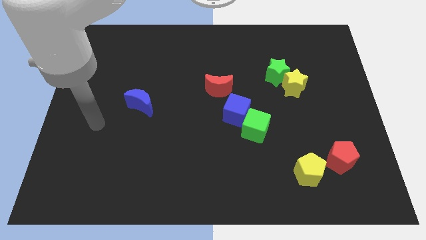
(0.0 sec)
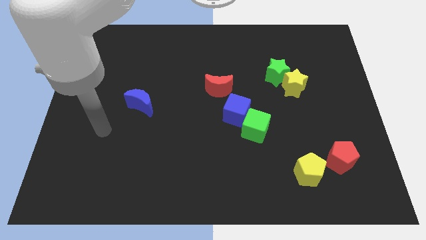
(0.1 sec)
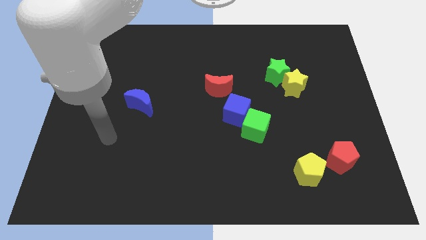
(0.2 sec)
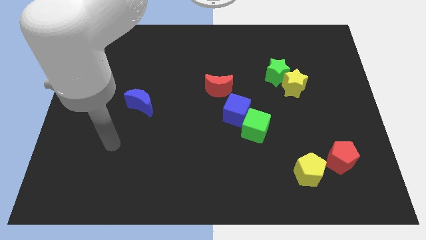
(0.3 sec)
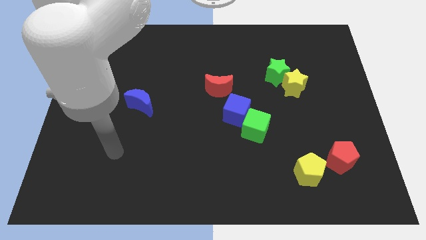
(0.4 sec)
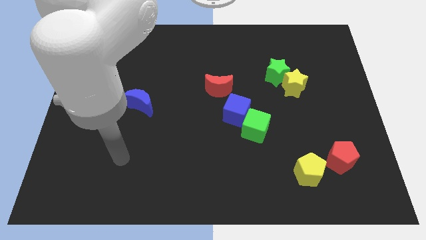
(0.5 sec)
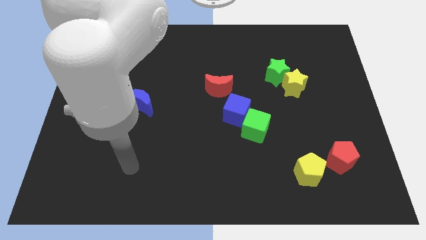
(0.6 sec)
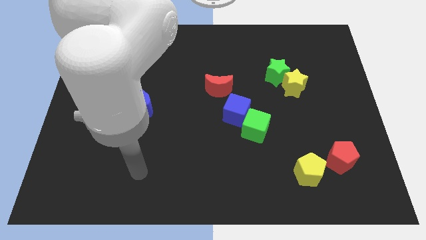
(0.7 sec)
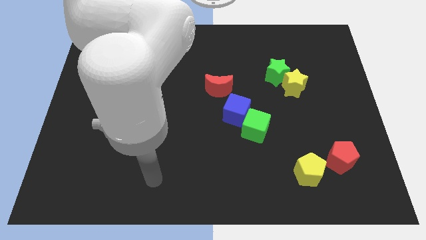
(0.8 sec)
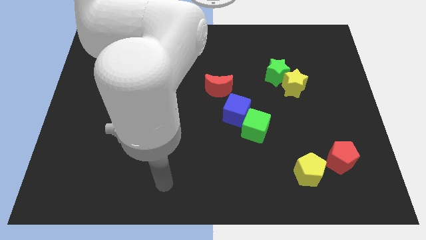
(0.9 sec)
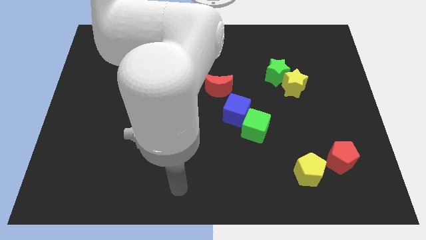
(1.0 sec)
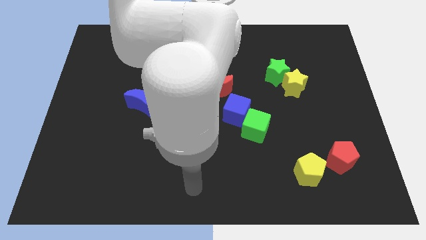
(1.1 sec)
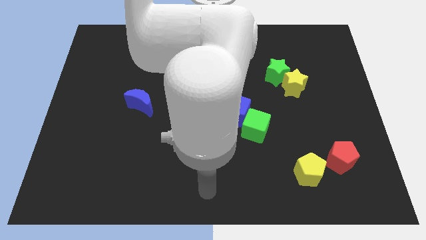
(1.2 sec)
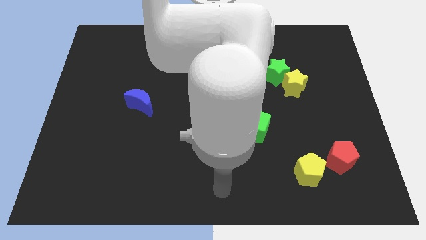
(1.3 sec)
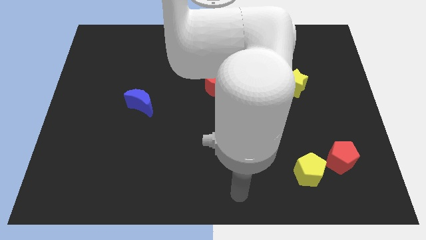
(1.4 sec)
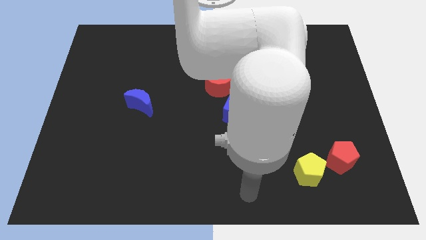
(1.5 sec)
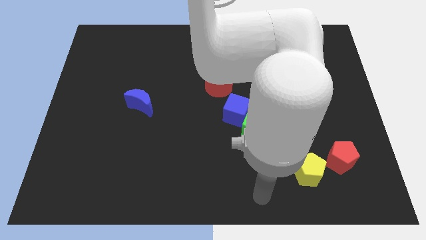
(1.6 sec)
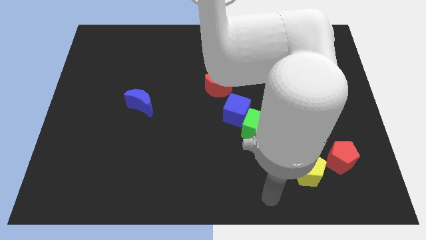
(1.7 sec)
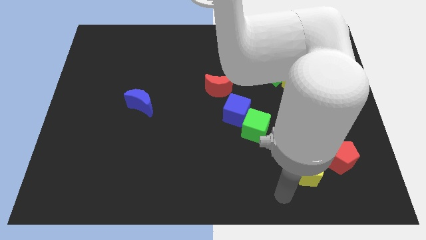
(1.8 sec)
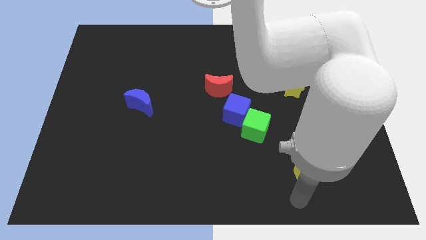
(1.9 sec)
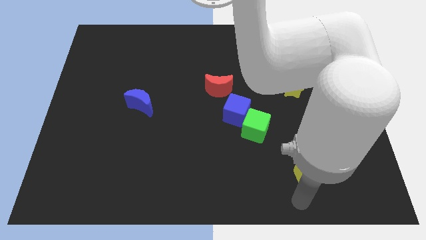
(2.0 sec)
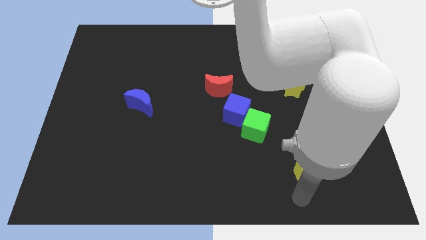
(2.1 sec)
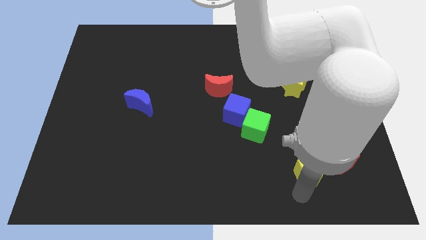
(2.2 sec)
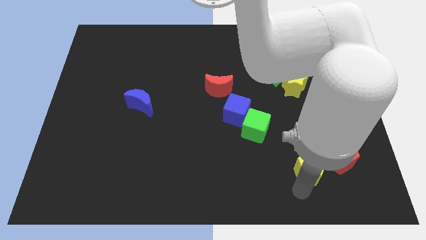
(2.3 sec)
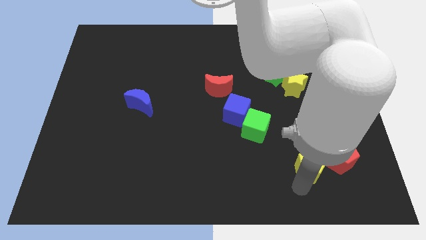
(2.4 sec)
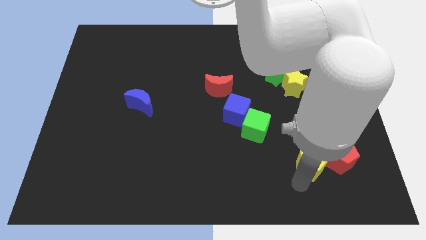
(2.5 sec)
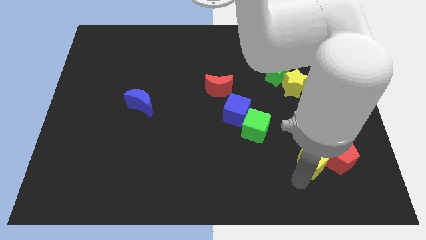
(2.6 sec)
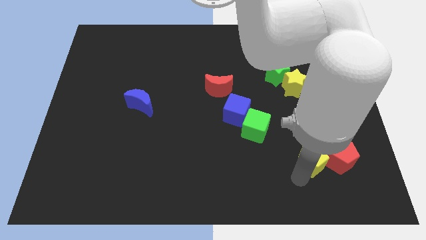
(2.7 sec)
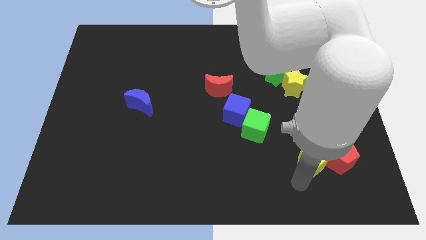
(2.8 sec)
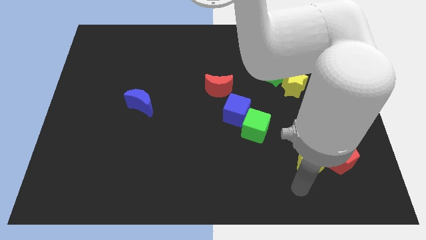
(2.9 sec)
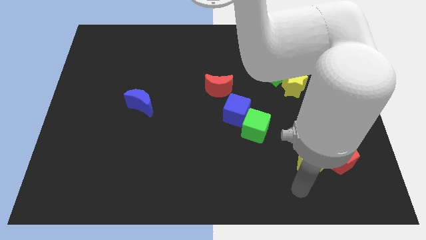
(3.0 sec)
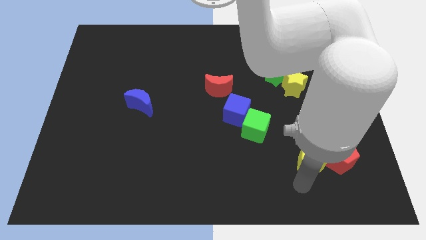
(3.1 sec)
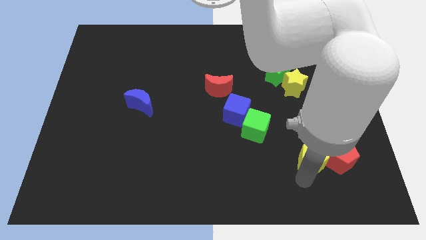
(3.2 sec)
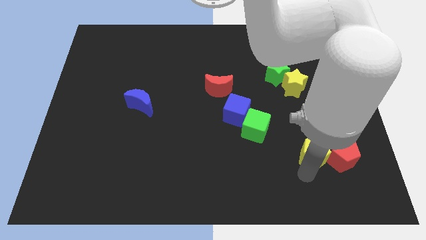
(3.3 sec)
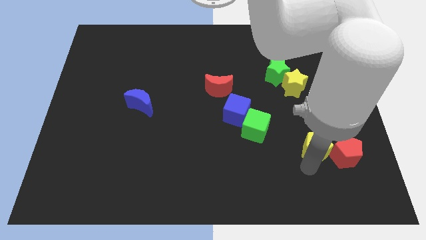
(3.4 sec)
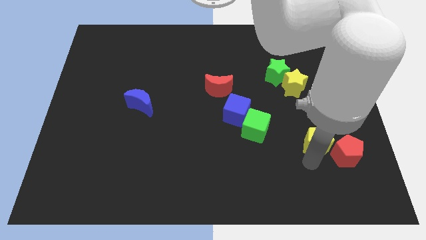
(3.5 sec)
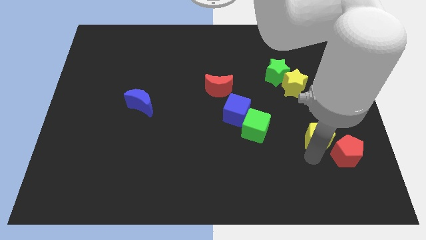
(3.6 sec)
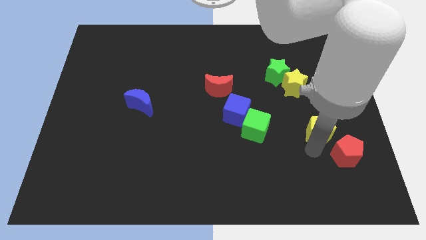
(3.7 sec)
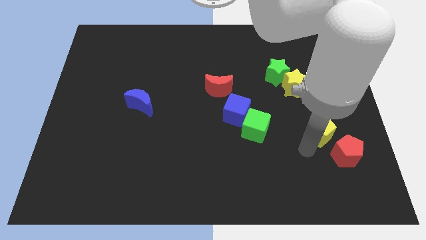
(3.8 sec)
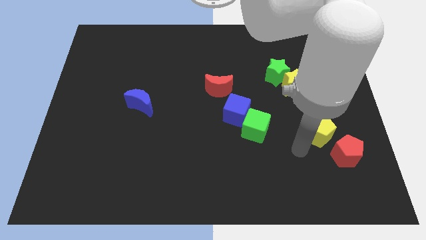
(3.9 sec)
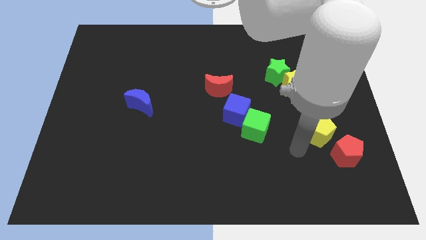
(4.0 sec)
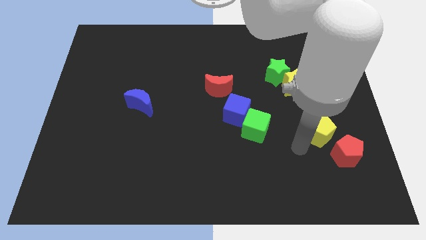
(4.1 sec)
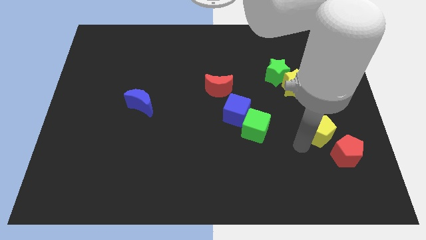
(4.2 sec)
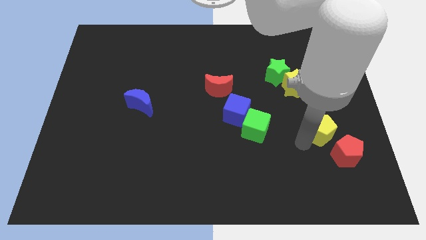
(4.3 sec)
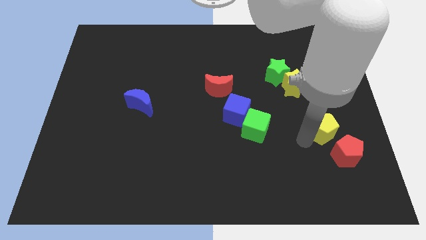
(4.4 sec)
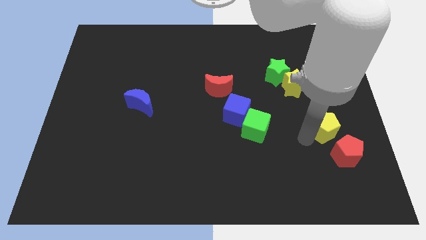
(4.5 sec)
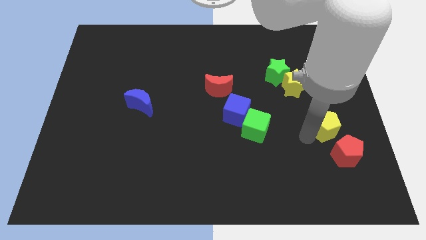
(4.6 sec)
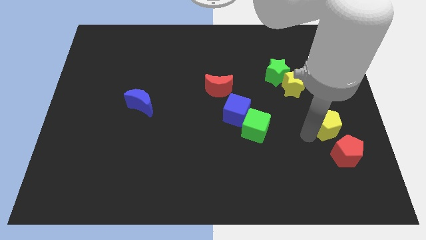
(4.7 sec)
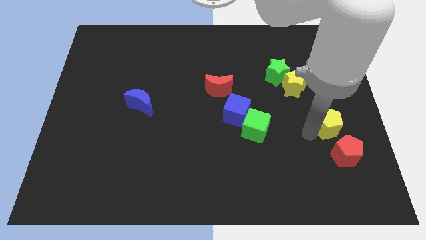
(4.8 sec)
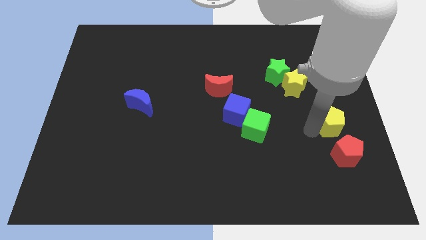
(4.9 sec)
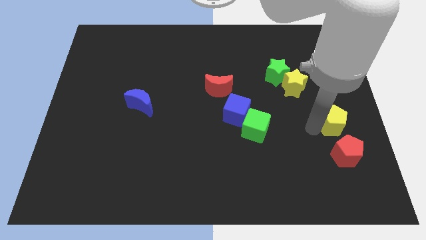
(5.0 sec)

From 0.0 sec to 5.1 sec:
slide the yellow pentagon to the right side of the board
